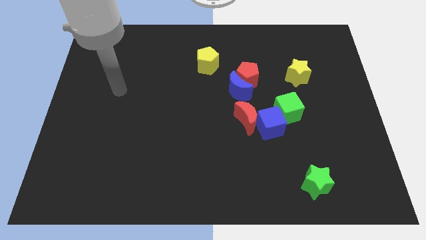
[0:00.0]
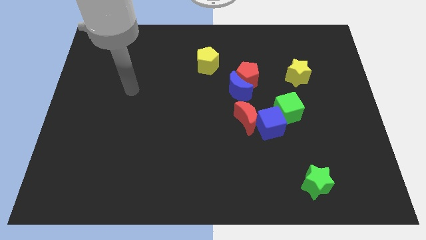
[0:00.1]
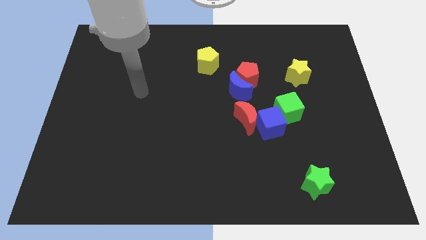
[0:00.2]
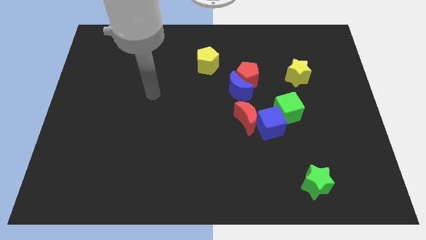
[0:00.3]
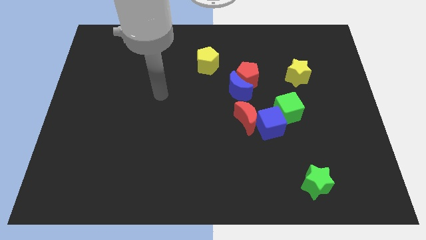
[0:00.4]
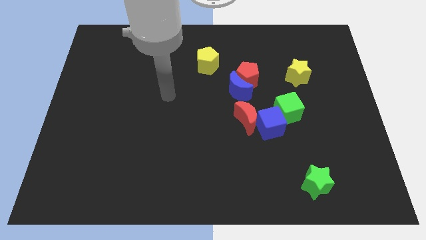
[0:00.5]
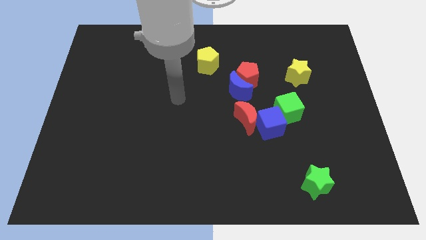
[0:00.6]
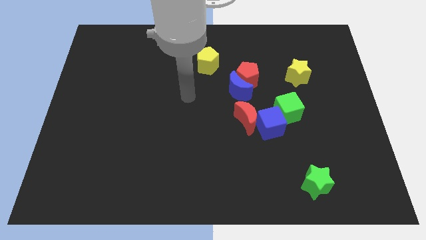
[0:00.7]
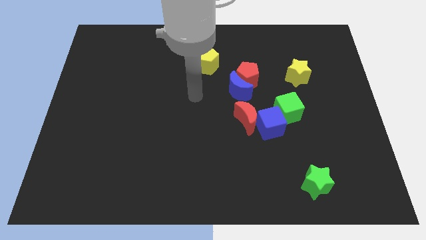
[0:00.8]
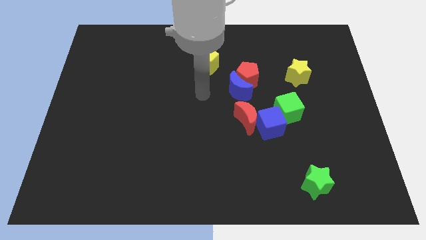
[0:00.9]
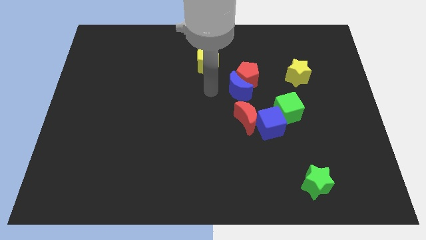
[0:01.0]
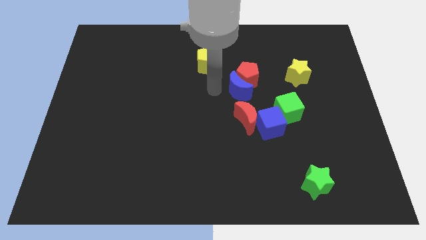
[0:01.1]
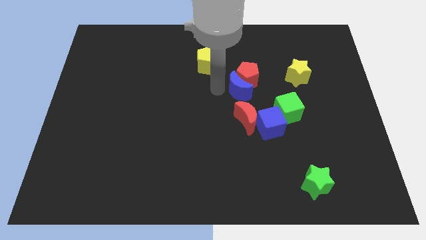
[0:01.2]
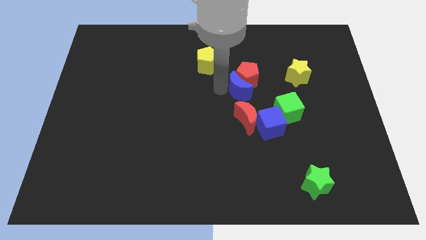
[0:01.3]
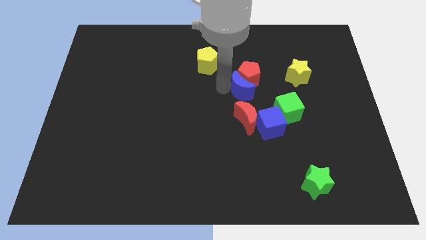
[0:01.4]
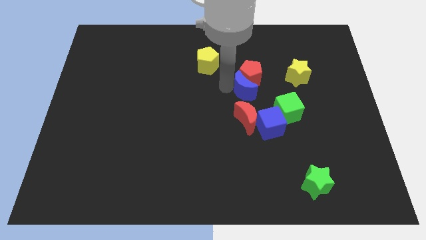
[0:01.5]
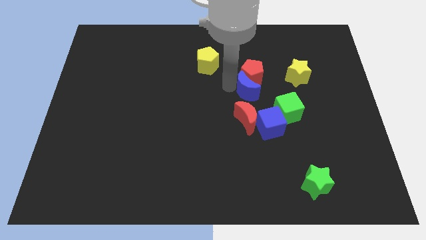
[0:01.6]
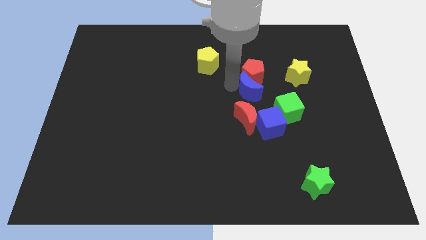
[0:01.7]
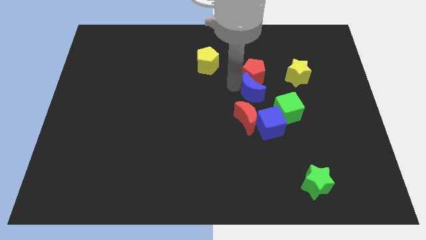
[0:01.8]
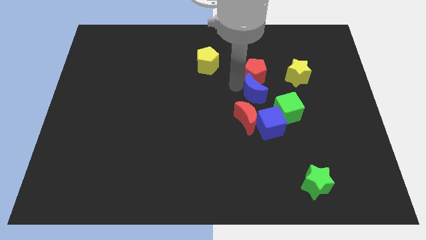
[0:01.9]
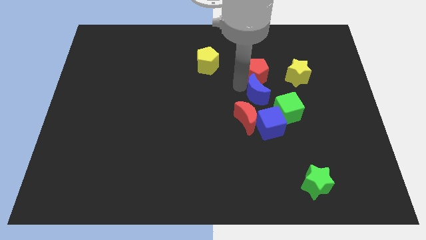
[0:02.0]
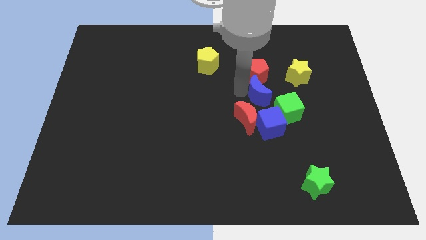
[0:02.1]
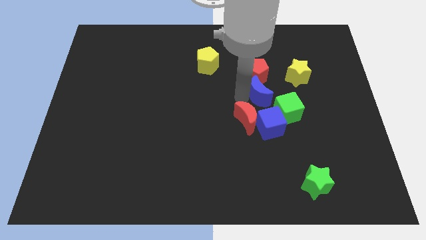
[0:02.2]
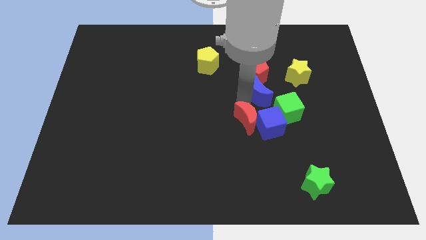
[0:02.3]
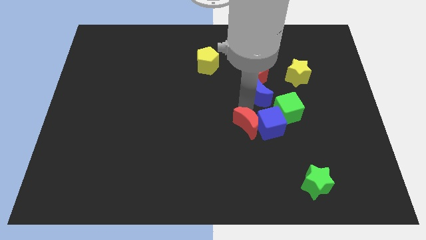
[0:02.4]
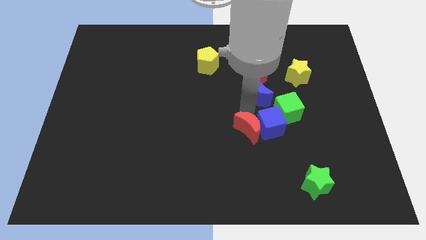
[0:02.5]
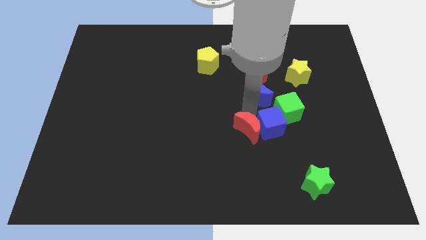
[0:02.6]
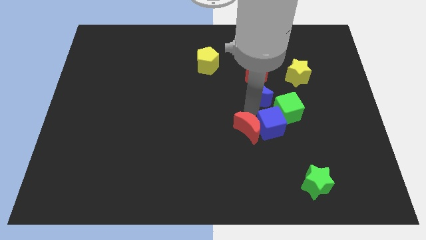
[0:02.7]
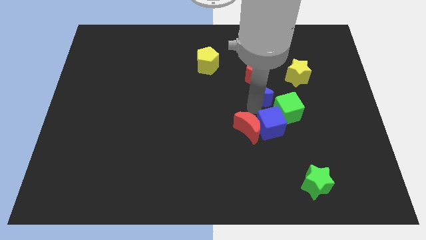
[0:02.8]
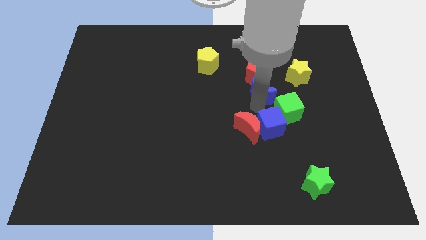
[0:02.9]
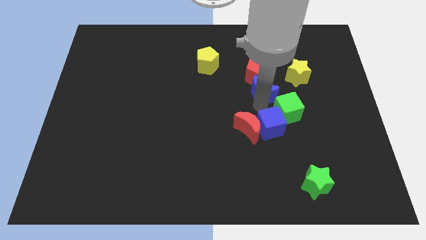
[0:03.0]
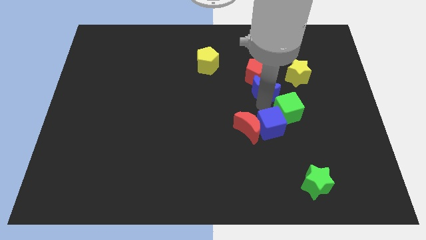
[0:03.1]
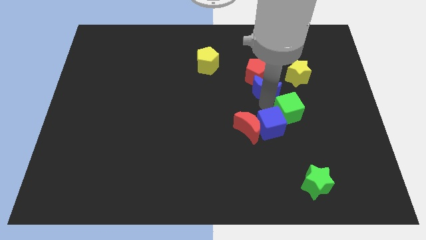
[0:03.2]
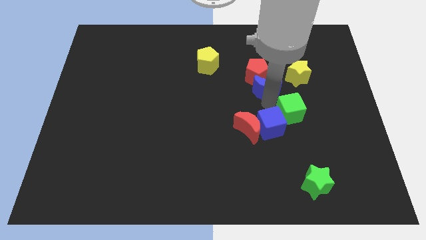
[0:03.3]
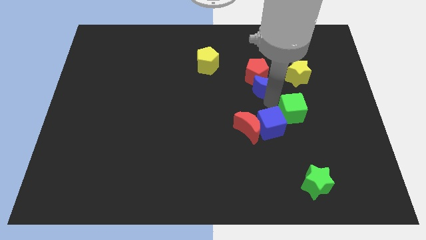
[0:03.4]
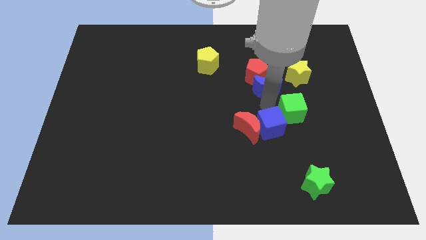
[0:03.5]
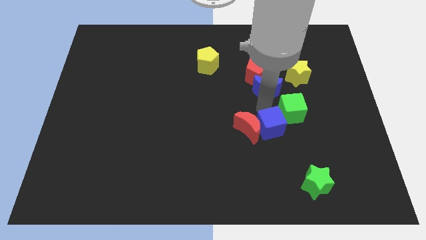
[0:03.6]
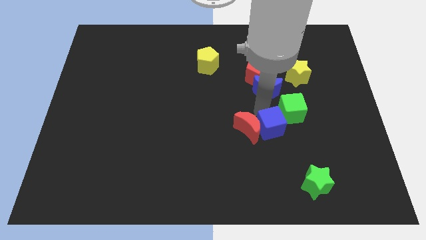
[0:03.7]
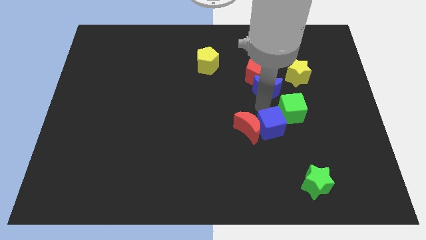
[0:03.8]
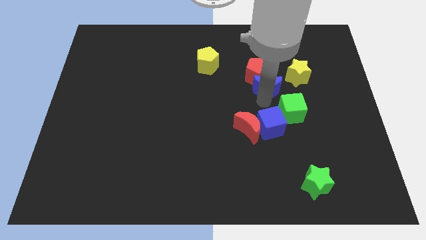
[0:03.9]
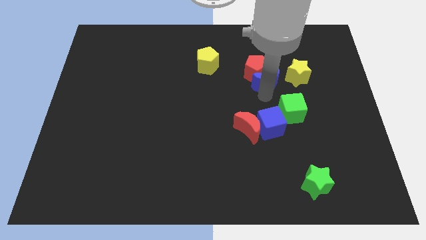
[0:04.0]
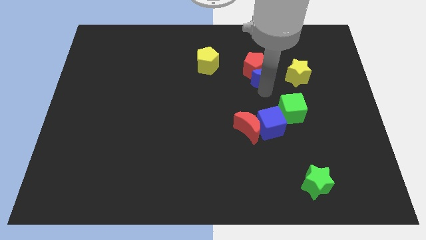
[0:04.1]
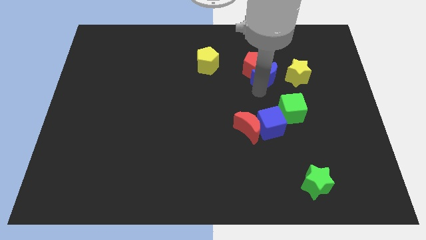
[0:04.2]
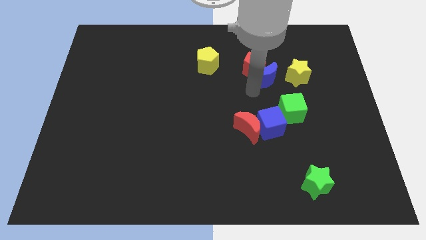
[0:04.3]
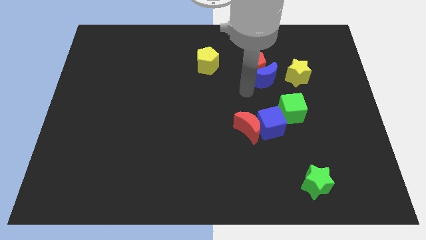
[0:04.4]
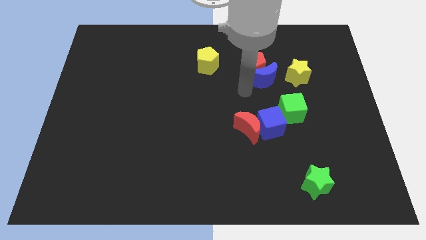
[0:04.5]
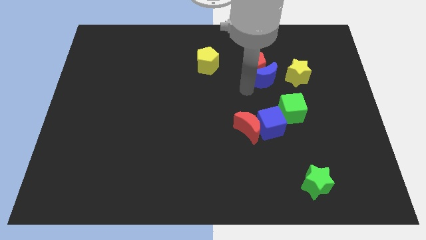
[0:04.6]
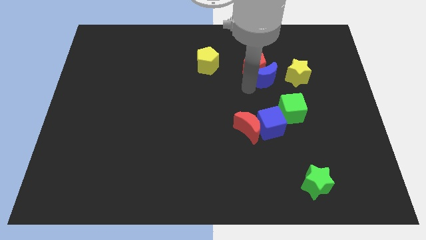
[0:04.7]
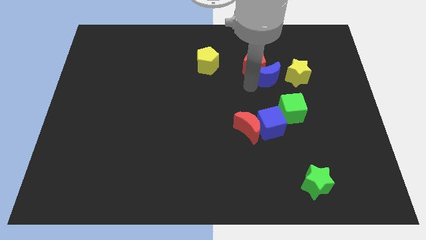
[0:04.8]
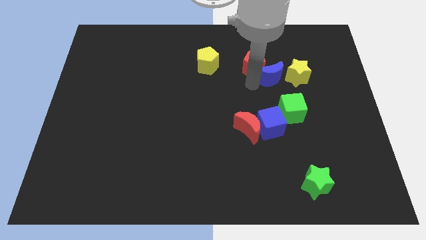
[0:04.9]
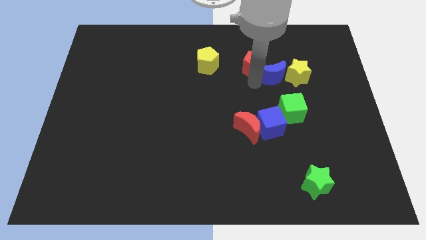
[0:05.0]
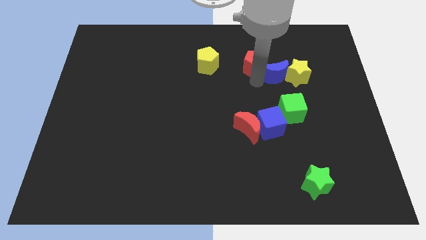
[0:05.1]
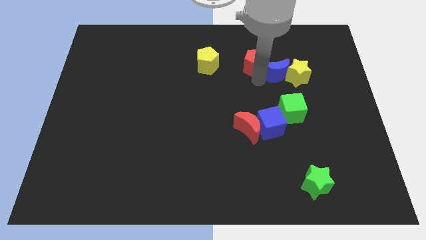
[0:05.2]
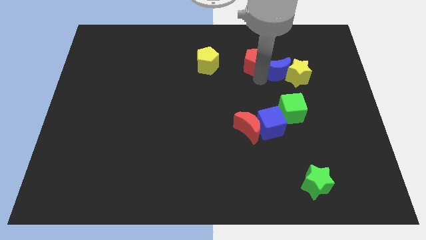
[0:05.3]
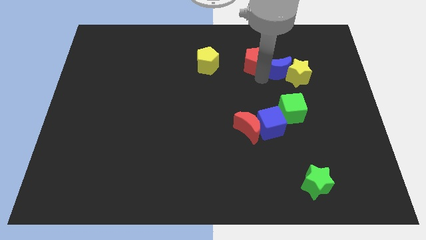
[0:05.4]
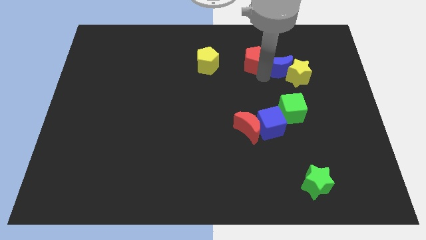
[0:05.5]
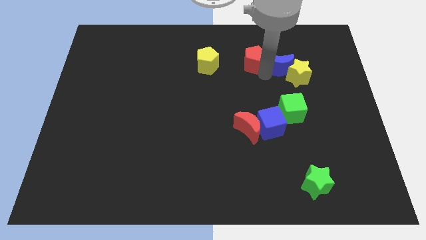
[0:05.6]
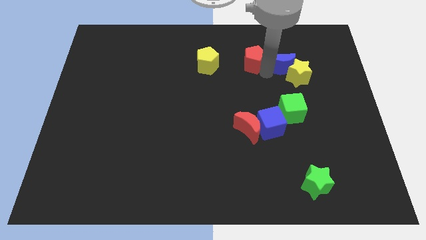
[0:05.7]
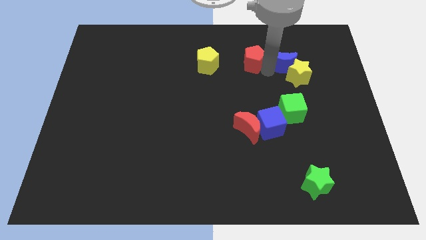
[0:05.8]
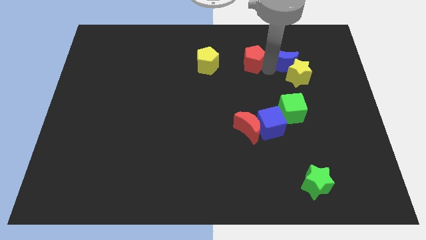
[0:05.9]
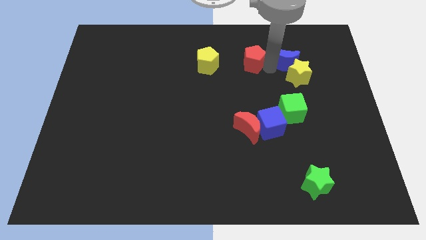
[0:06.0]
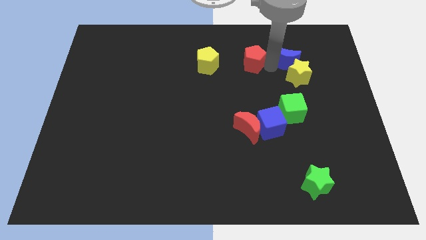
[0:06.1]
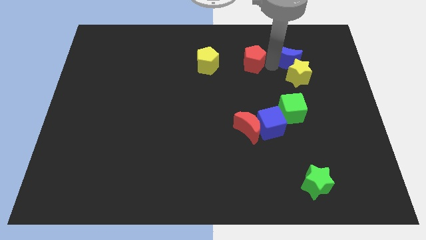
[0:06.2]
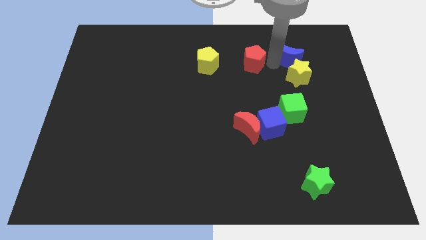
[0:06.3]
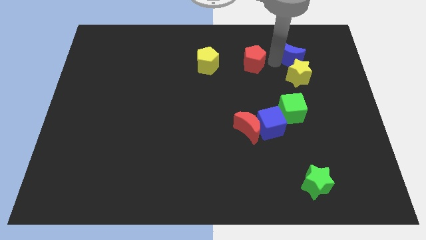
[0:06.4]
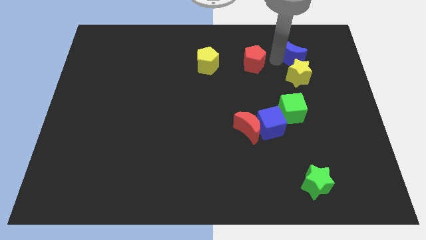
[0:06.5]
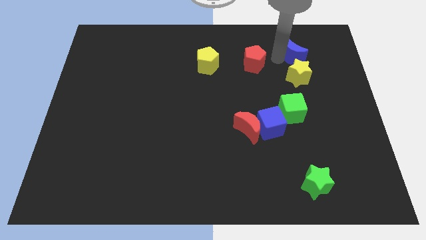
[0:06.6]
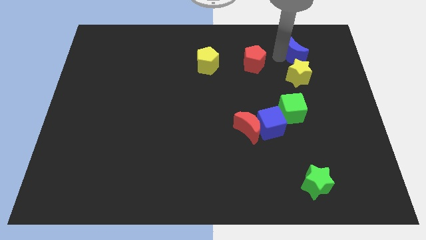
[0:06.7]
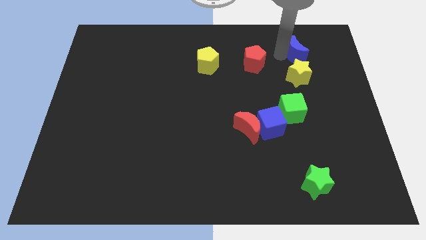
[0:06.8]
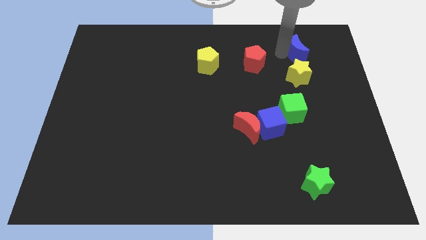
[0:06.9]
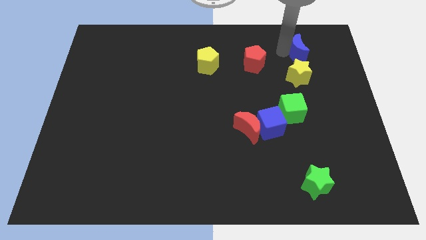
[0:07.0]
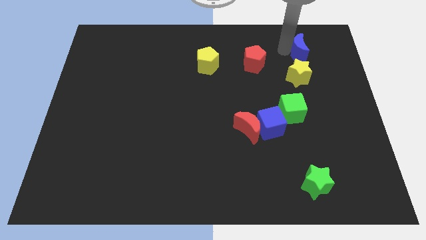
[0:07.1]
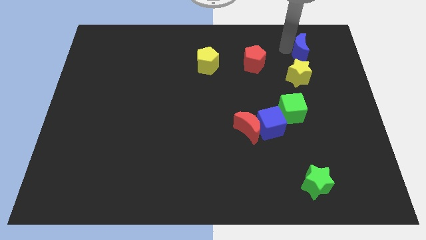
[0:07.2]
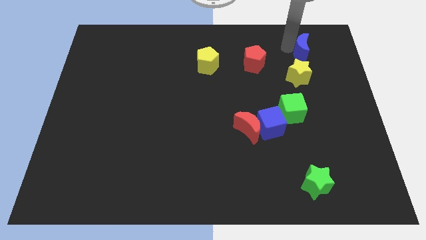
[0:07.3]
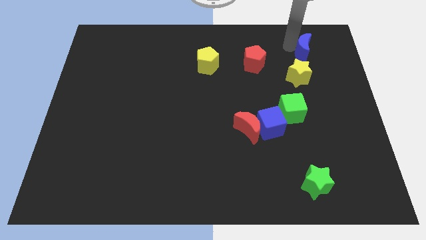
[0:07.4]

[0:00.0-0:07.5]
slide the blue moon to the top right side of the yellow star

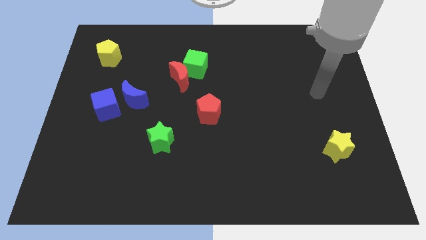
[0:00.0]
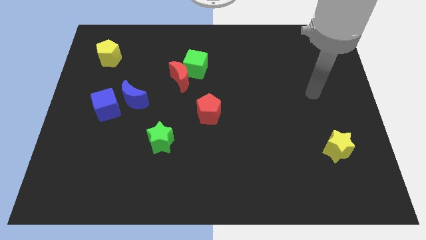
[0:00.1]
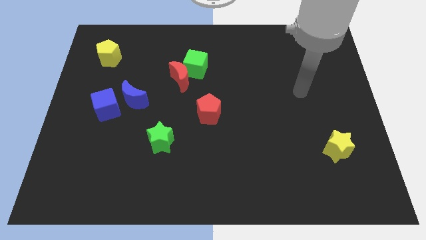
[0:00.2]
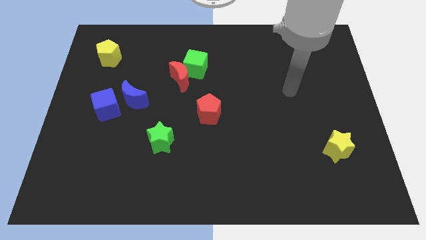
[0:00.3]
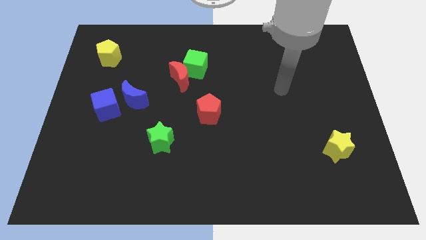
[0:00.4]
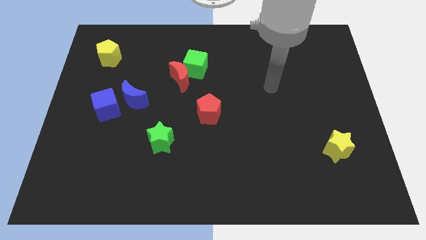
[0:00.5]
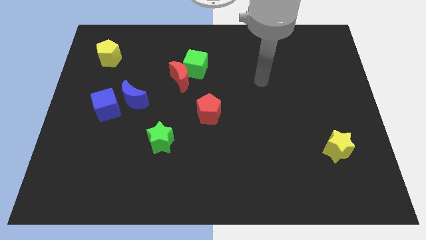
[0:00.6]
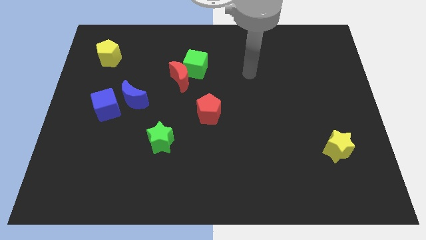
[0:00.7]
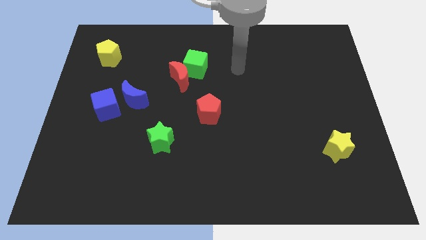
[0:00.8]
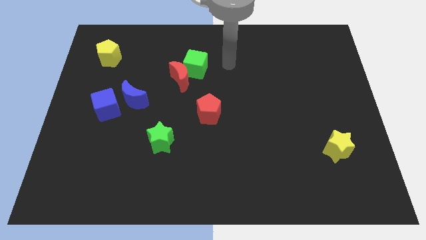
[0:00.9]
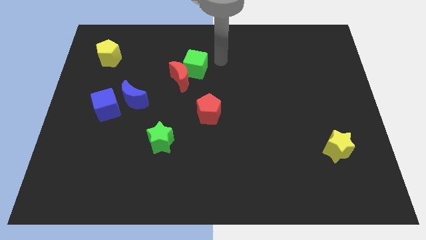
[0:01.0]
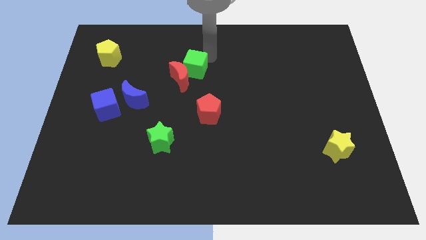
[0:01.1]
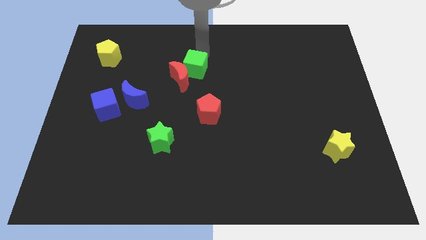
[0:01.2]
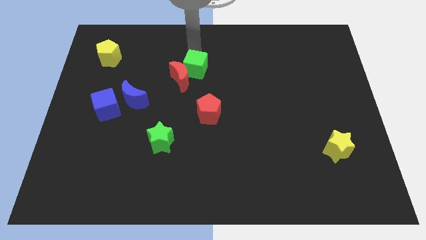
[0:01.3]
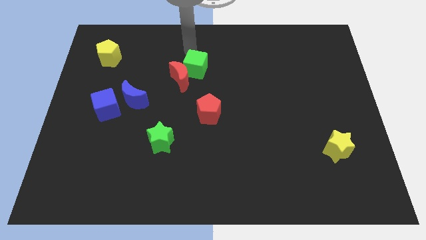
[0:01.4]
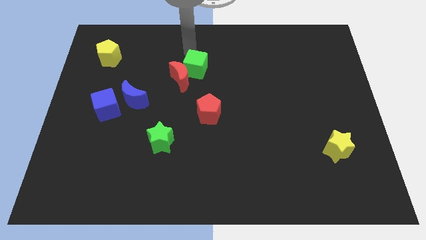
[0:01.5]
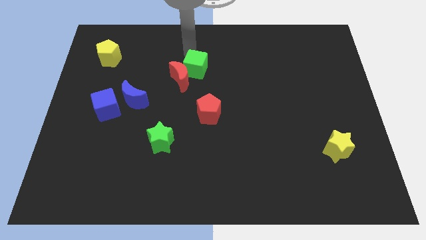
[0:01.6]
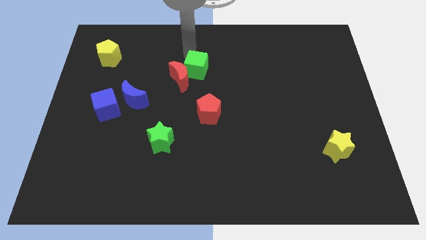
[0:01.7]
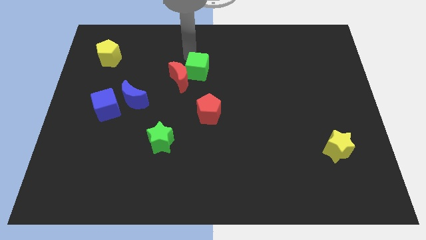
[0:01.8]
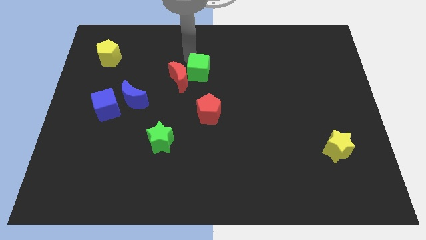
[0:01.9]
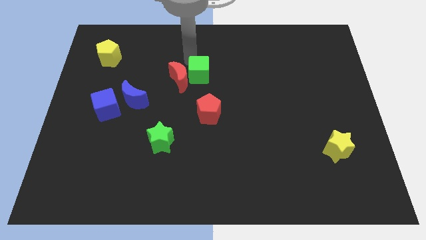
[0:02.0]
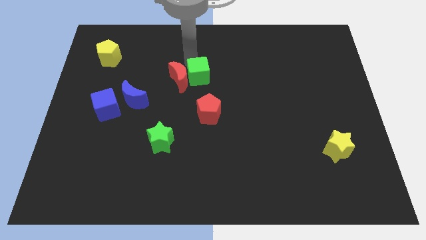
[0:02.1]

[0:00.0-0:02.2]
slide the green cube diagonally down and to the right of the red moon
